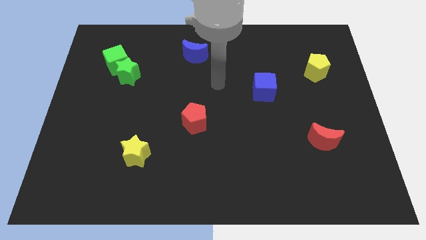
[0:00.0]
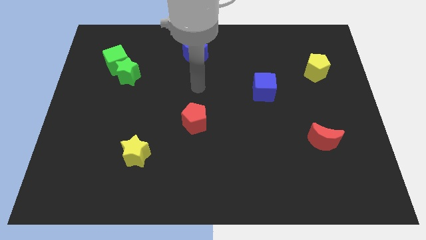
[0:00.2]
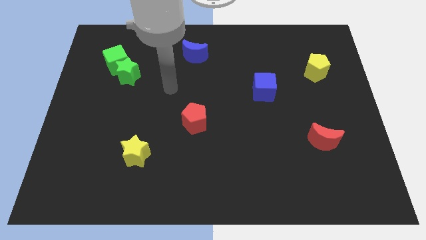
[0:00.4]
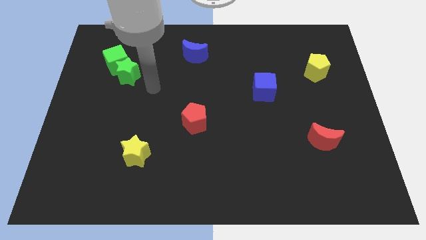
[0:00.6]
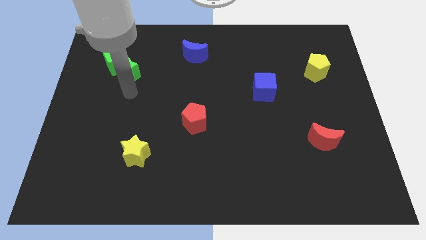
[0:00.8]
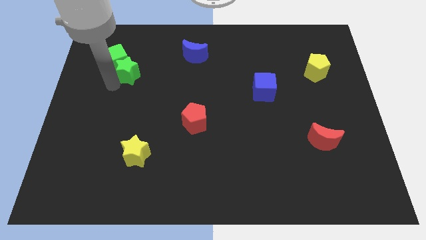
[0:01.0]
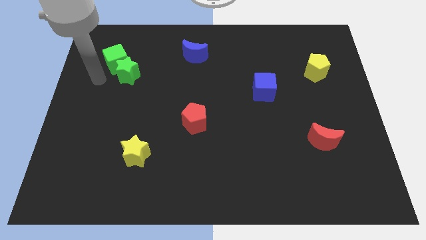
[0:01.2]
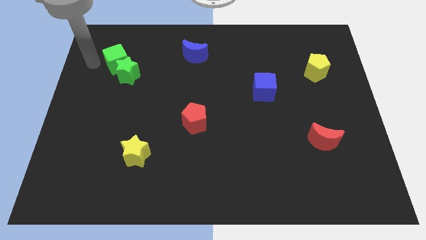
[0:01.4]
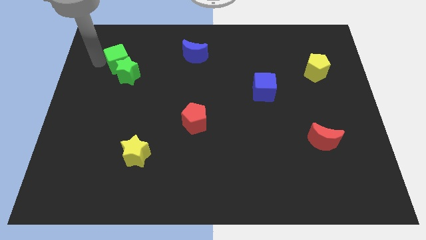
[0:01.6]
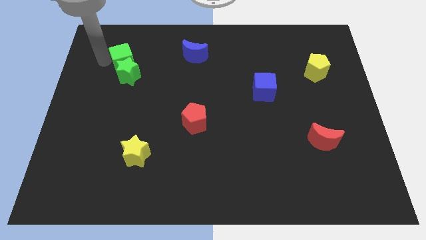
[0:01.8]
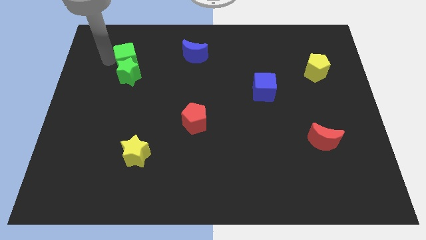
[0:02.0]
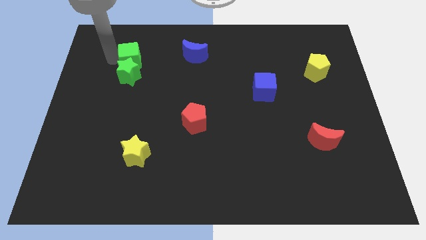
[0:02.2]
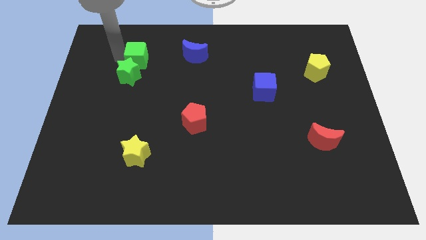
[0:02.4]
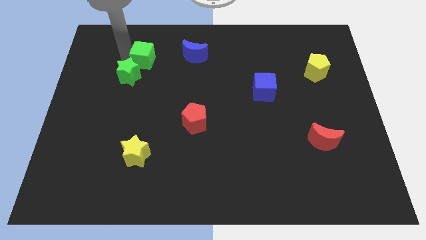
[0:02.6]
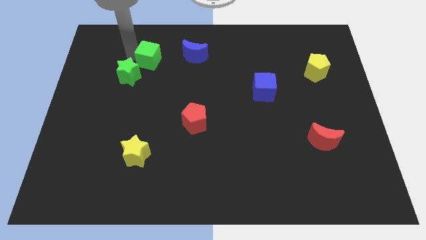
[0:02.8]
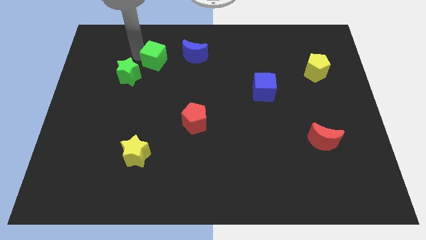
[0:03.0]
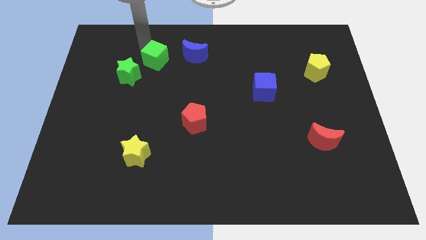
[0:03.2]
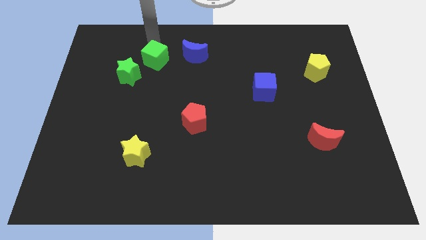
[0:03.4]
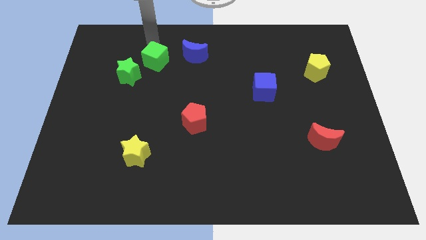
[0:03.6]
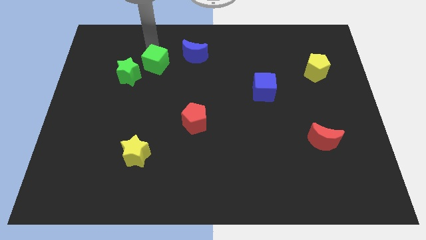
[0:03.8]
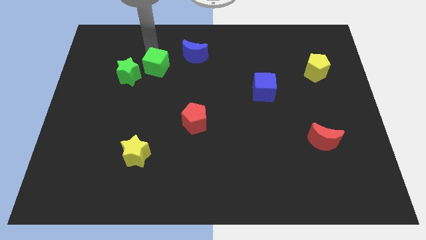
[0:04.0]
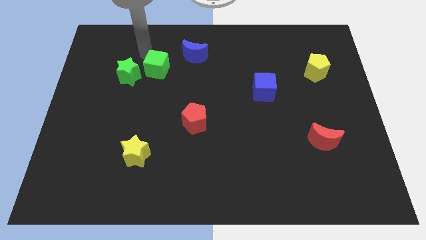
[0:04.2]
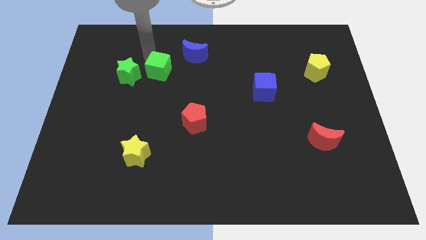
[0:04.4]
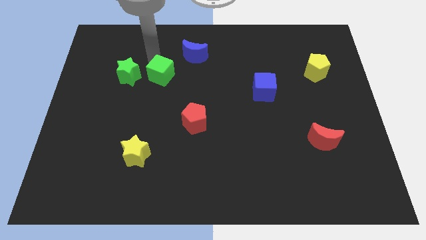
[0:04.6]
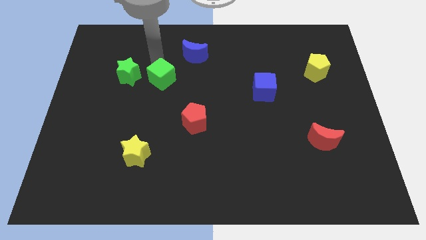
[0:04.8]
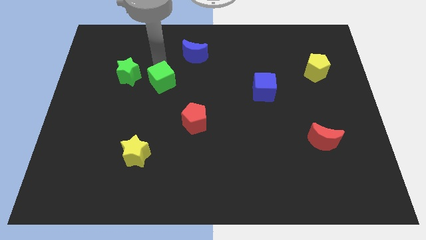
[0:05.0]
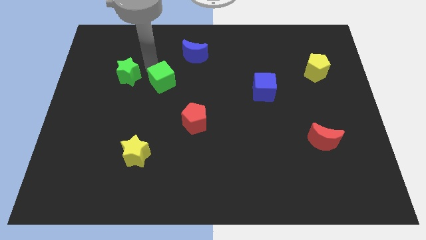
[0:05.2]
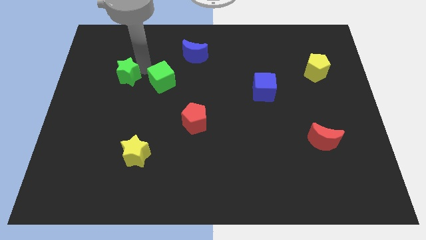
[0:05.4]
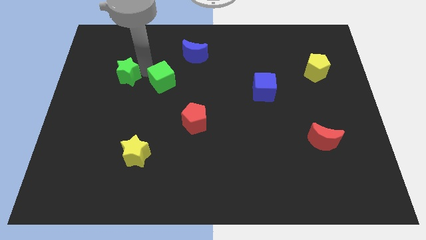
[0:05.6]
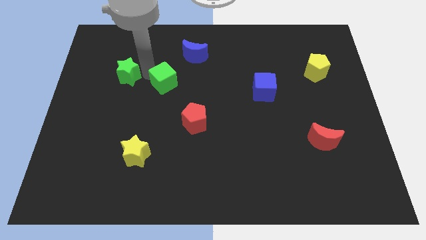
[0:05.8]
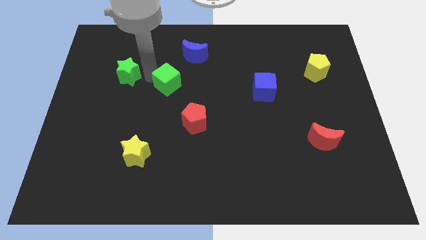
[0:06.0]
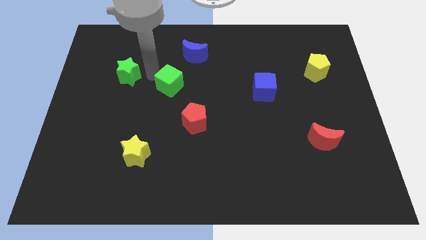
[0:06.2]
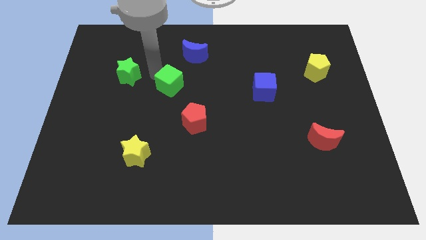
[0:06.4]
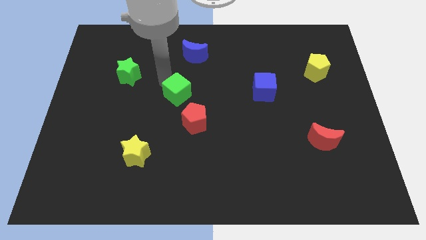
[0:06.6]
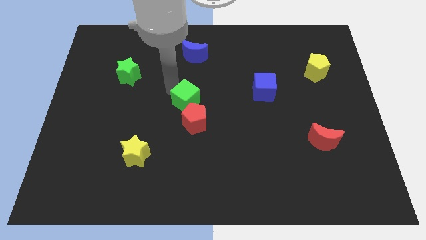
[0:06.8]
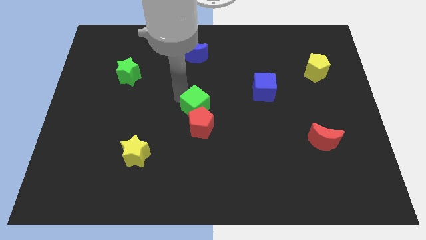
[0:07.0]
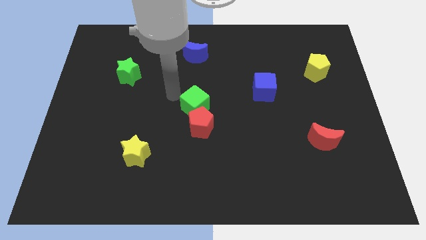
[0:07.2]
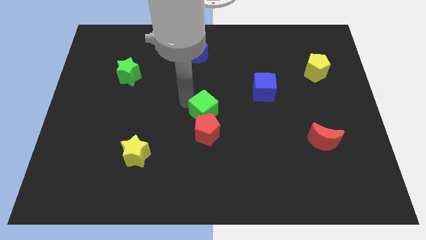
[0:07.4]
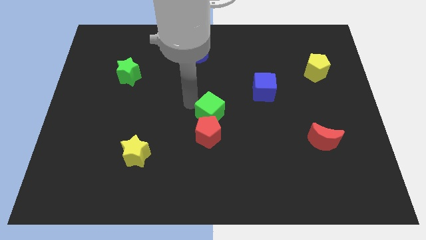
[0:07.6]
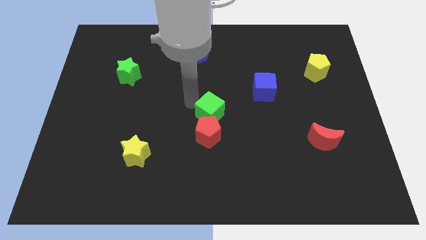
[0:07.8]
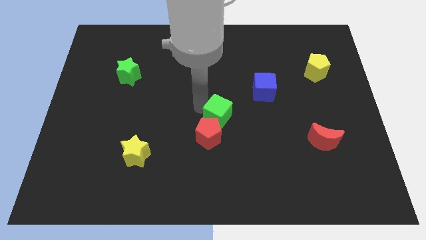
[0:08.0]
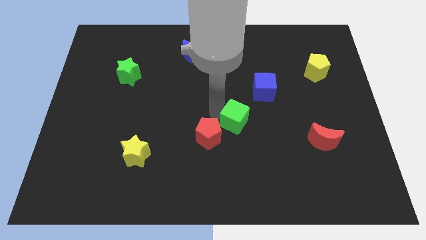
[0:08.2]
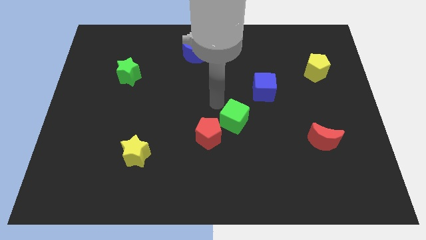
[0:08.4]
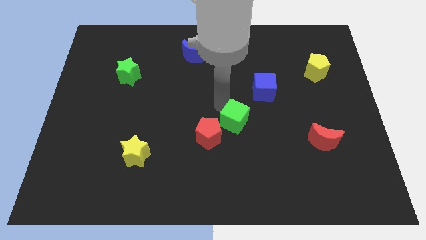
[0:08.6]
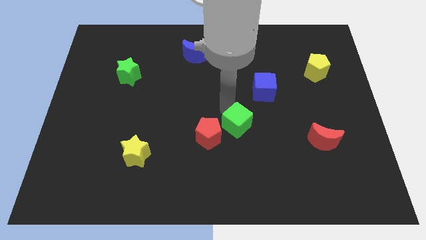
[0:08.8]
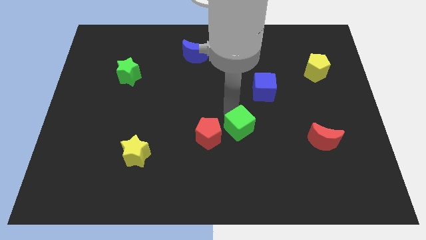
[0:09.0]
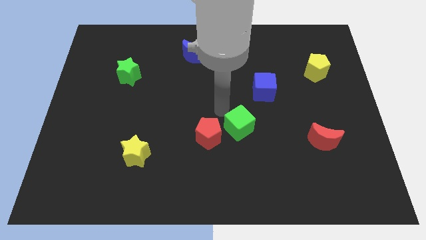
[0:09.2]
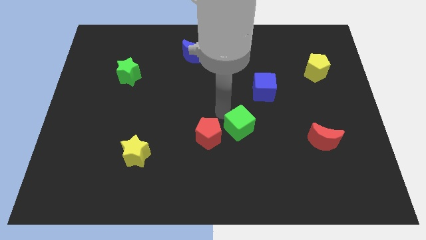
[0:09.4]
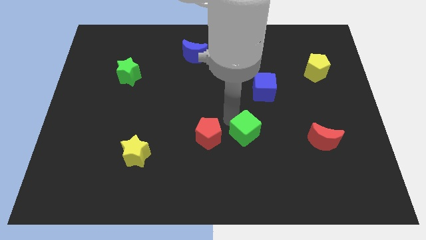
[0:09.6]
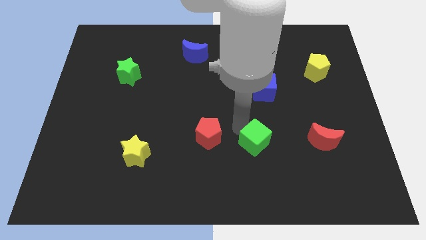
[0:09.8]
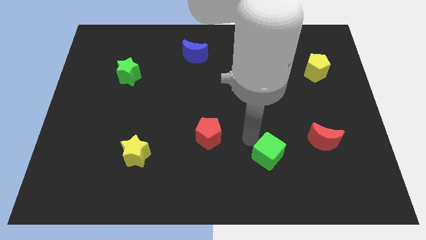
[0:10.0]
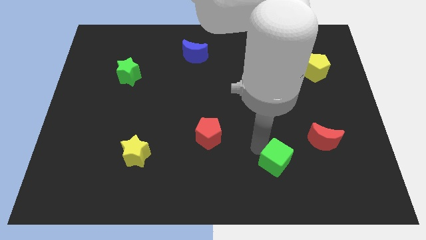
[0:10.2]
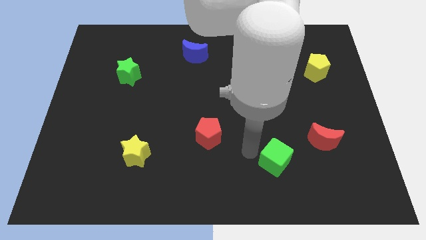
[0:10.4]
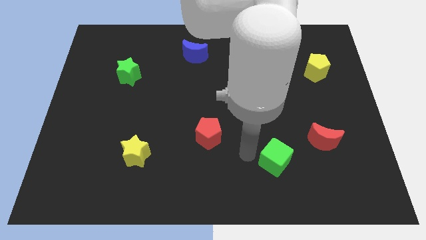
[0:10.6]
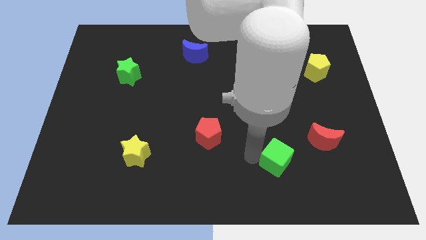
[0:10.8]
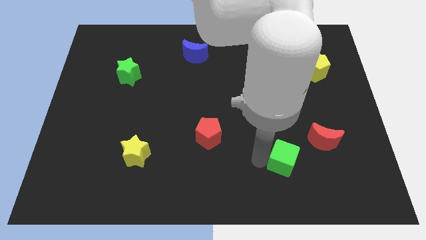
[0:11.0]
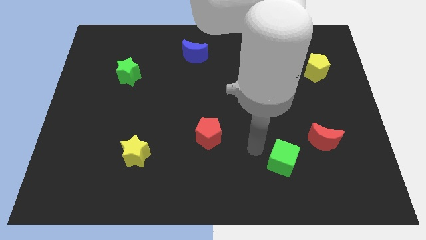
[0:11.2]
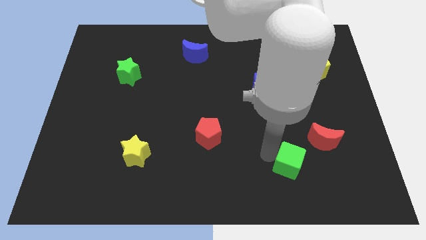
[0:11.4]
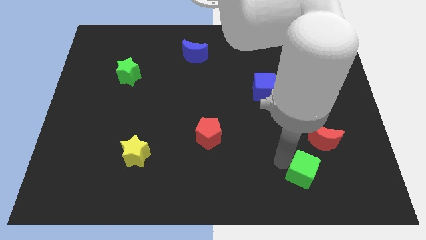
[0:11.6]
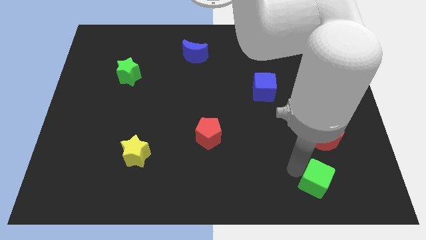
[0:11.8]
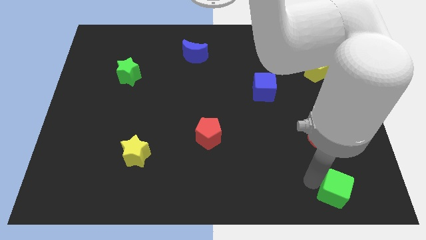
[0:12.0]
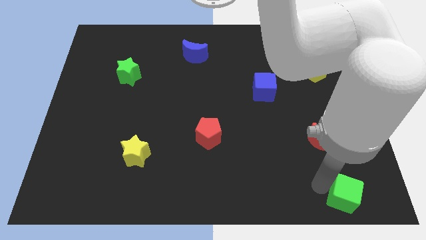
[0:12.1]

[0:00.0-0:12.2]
move the green cube to the bottom right corner
